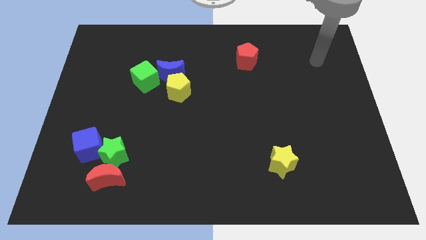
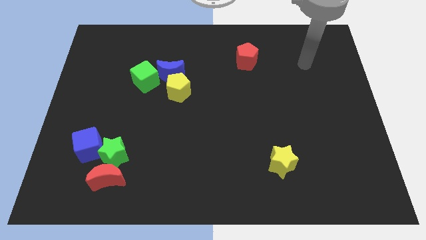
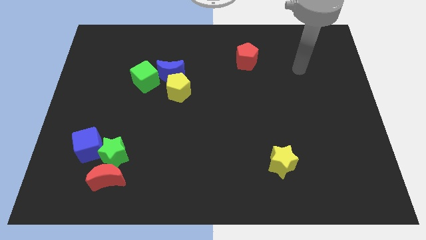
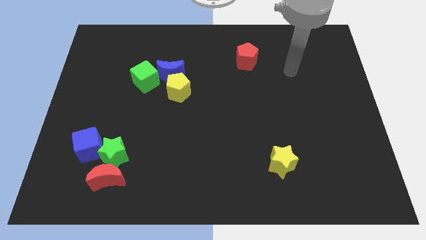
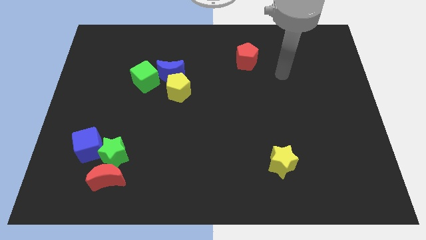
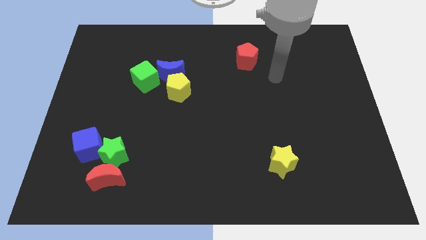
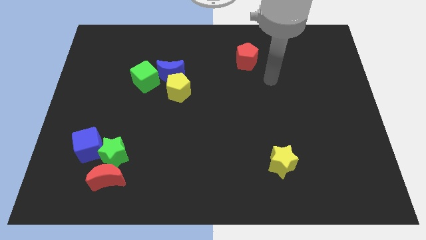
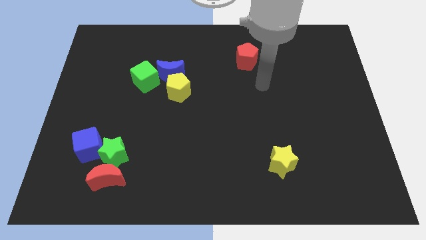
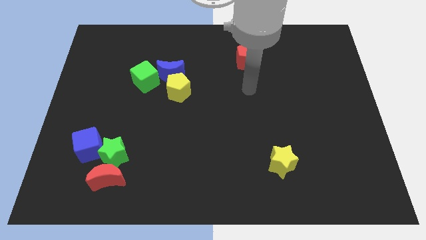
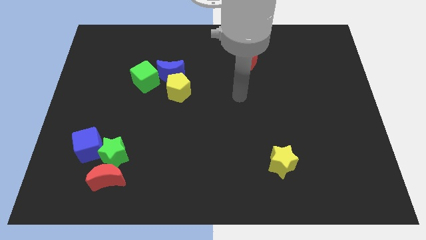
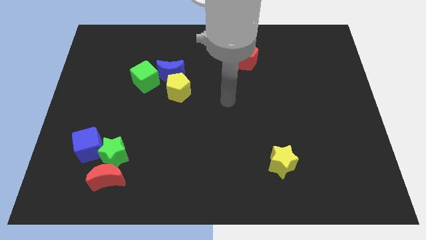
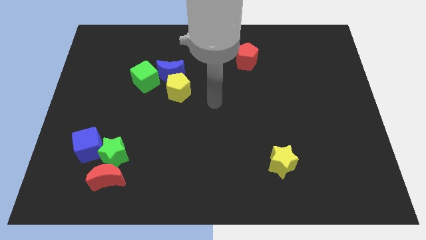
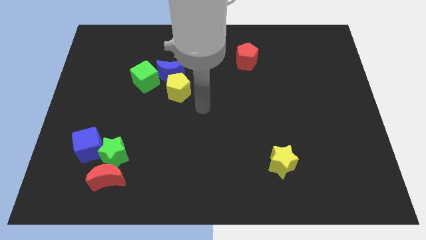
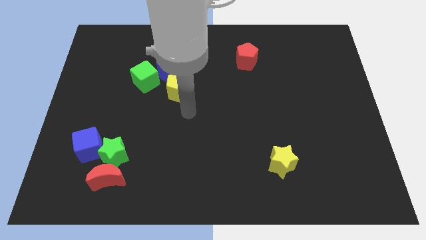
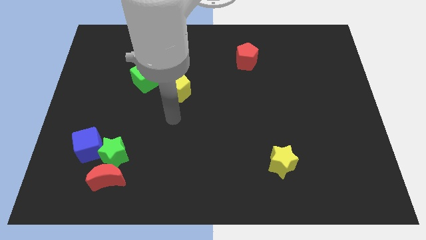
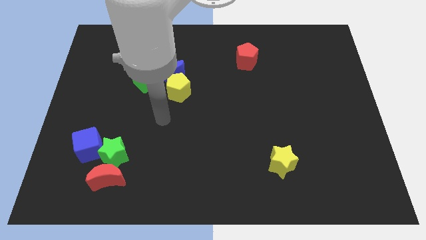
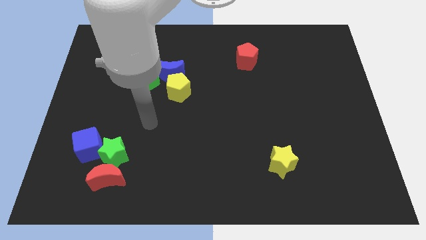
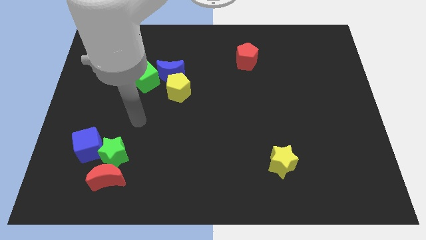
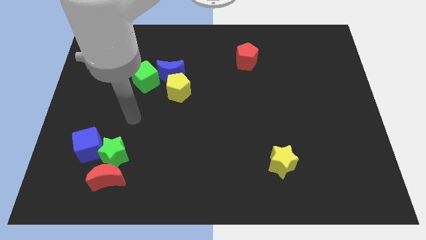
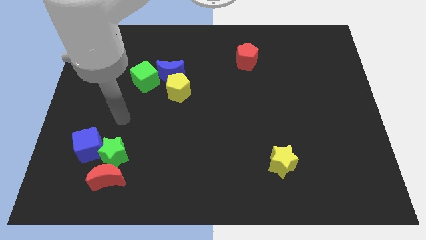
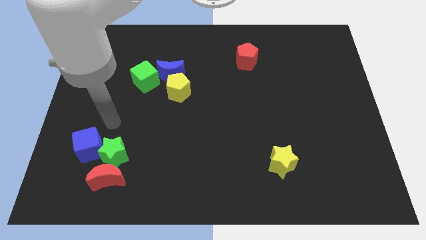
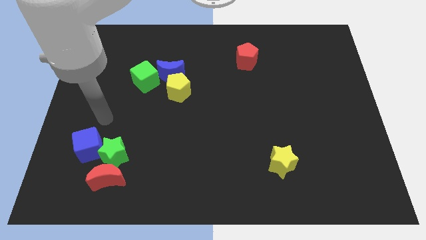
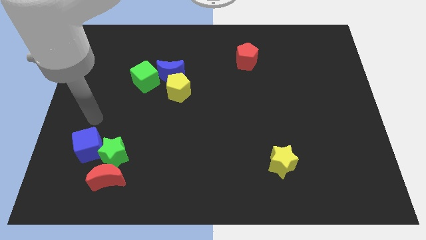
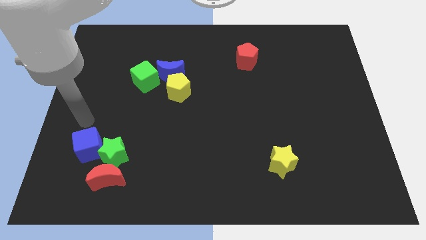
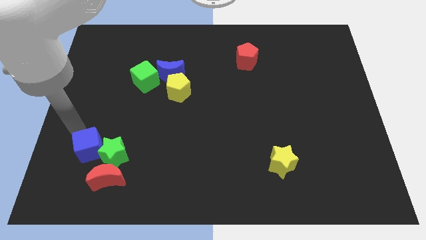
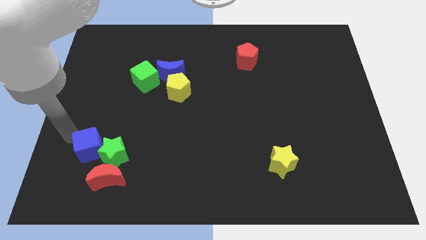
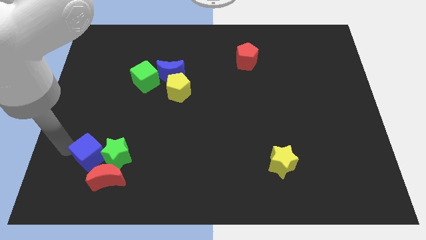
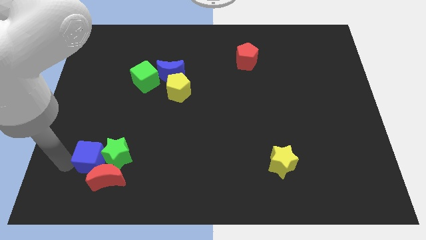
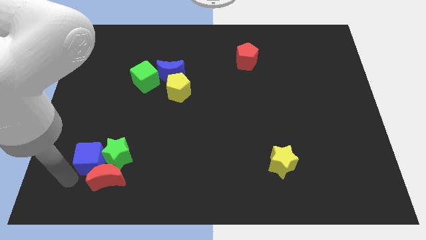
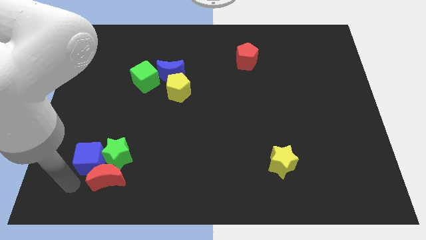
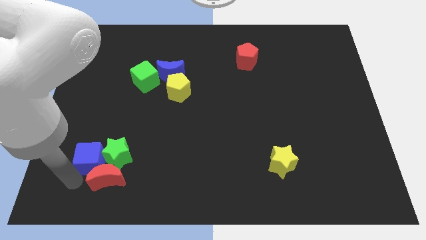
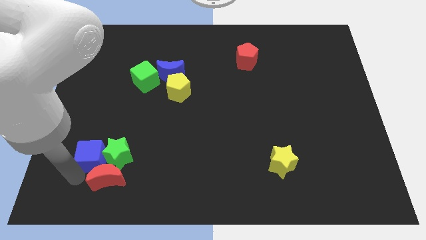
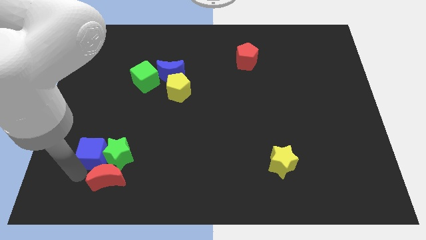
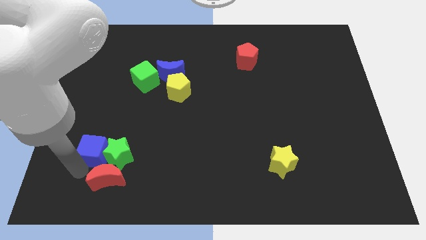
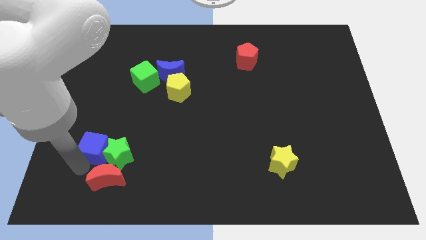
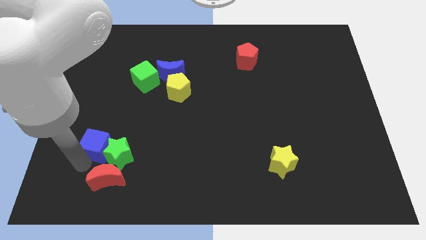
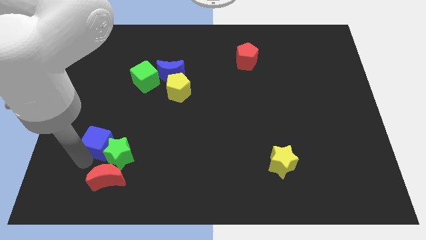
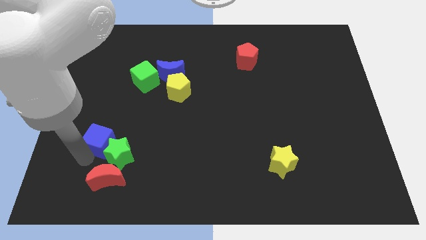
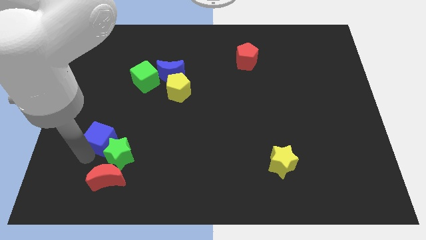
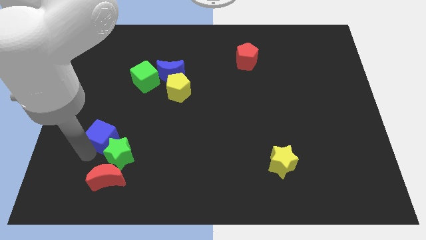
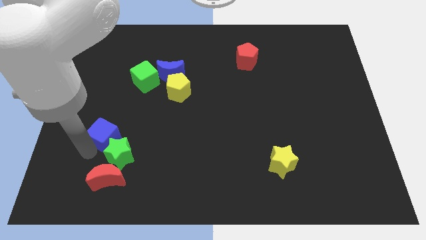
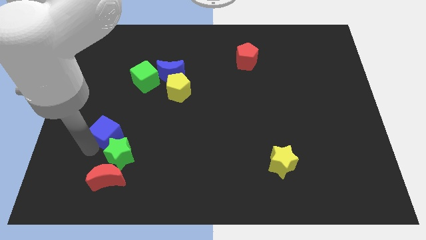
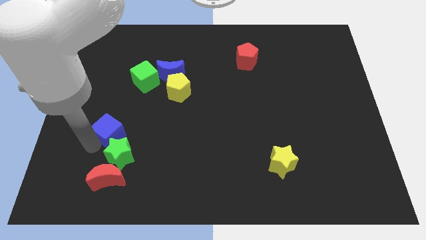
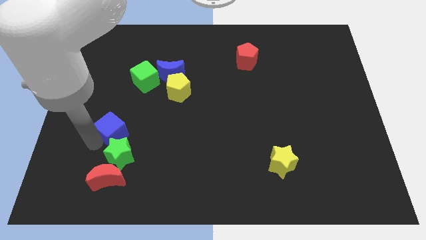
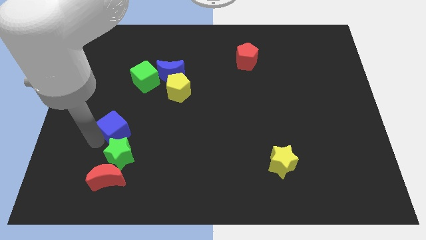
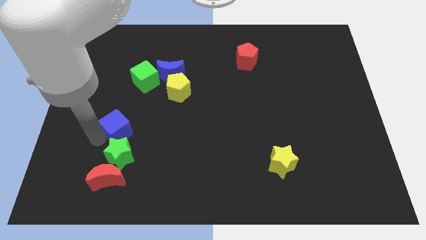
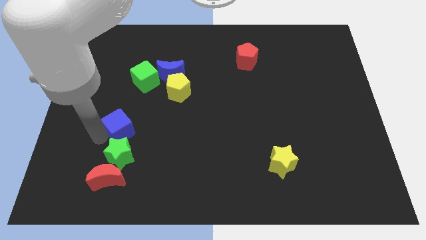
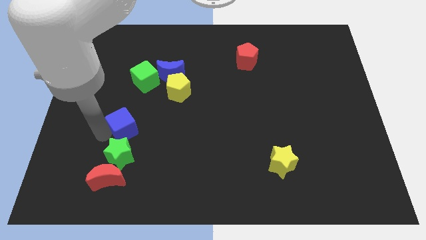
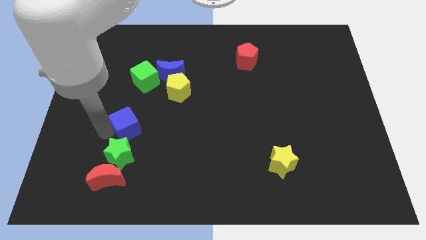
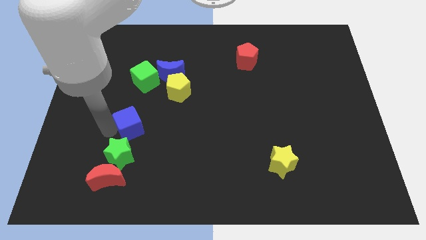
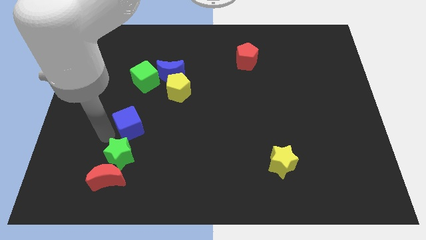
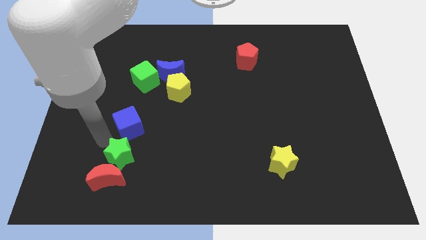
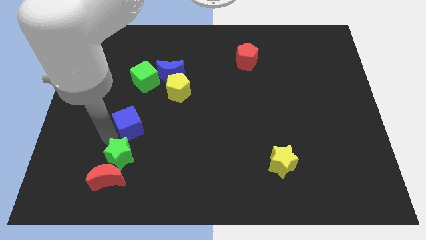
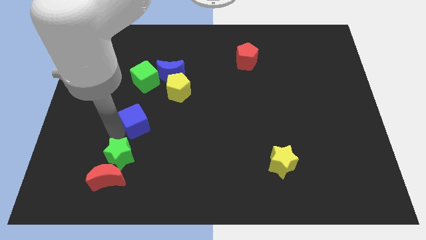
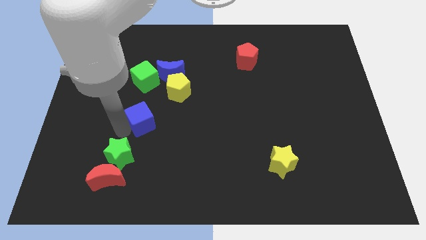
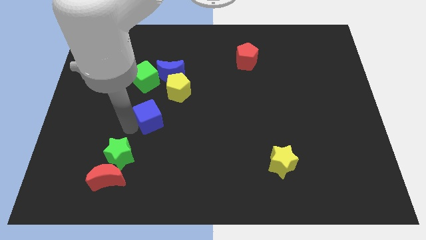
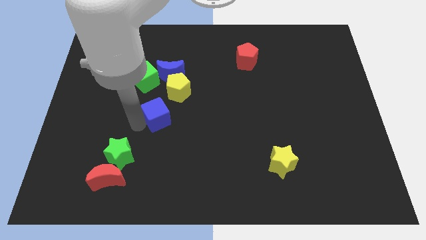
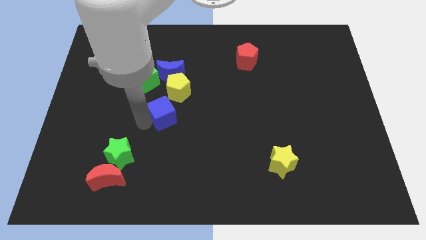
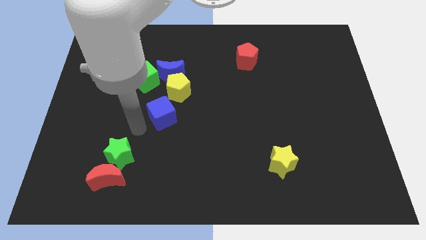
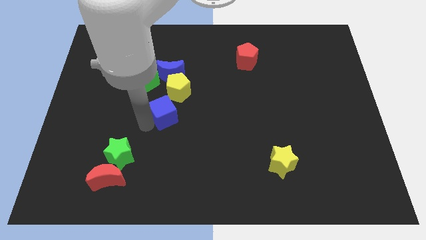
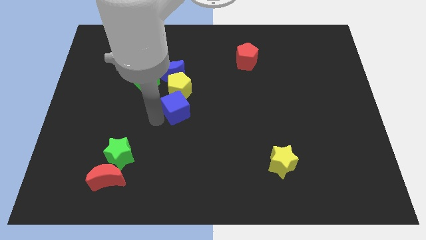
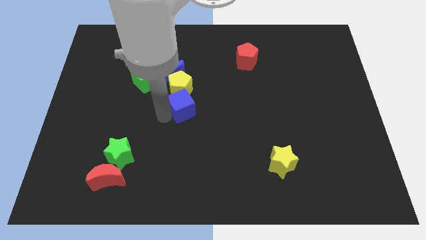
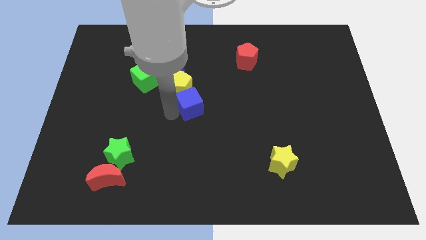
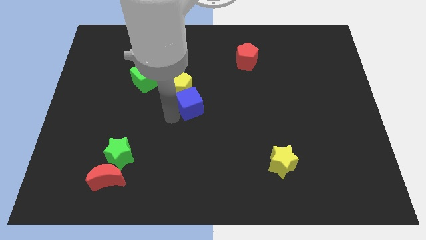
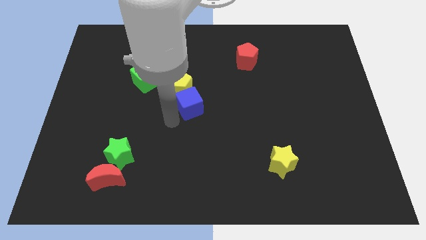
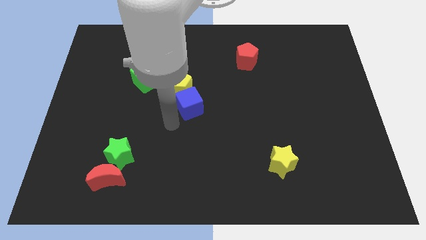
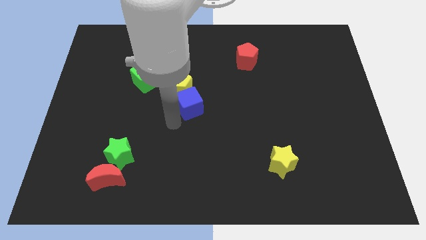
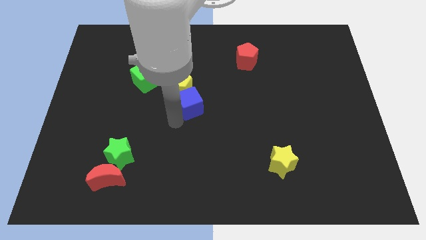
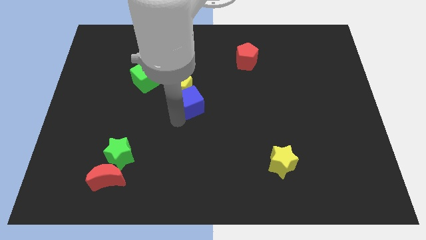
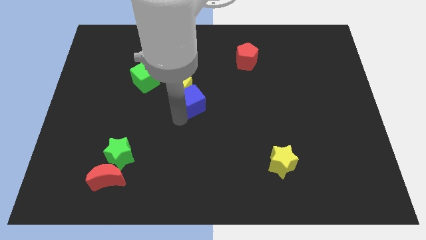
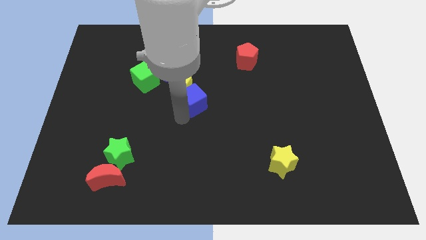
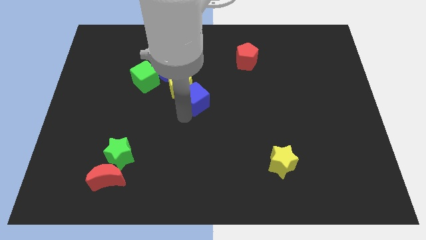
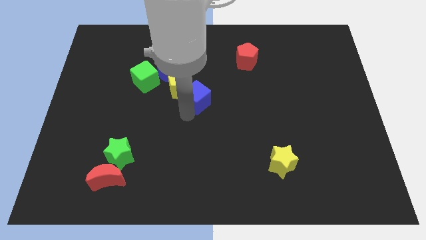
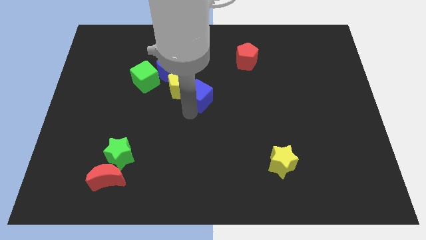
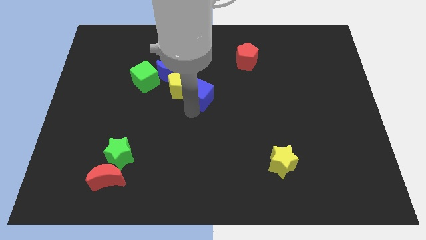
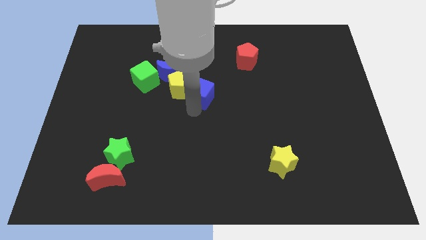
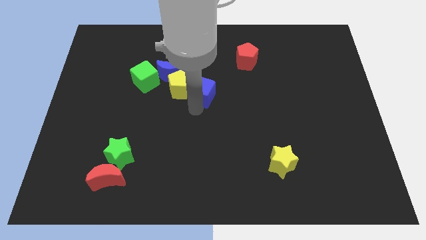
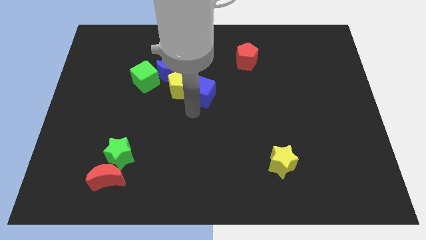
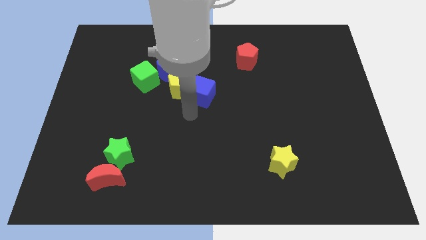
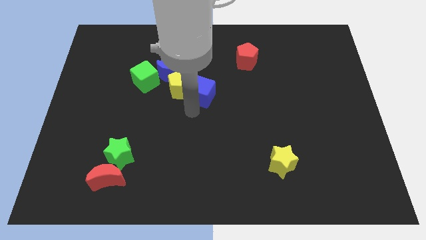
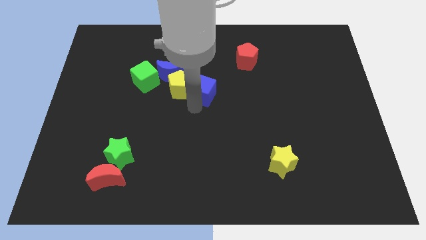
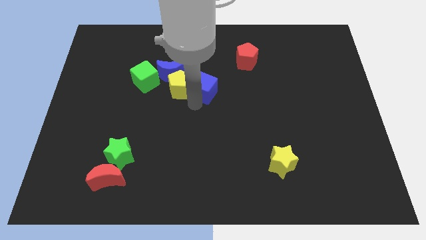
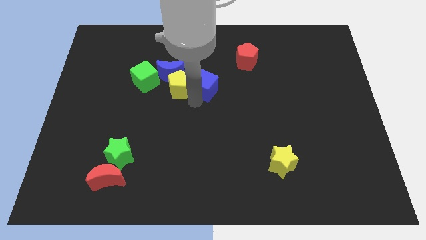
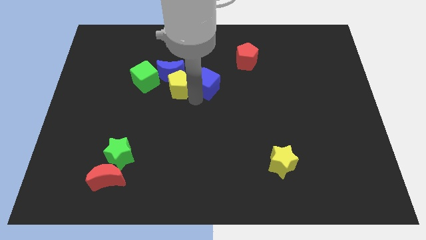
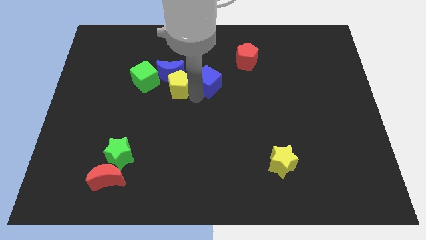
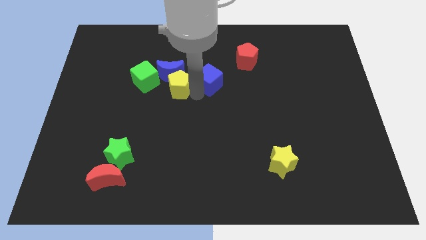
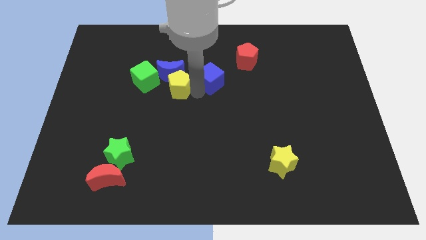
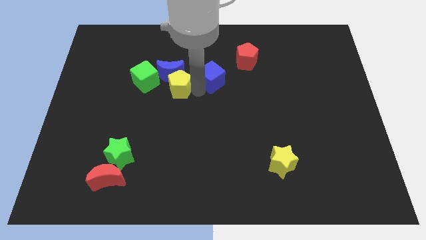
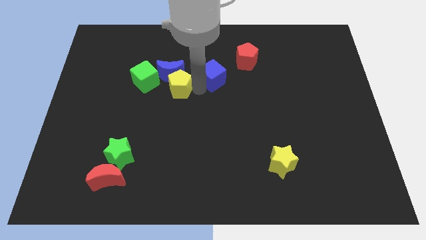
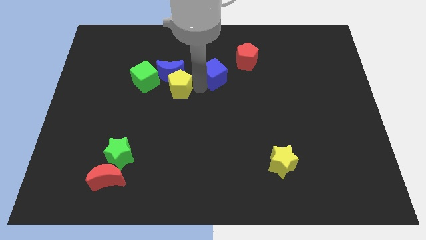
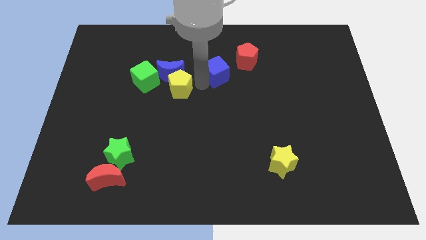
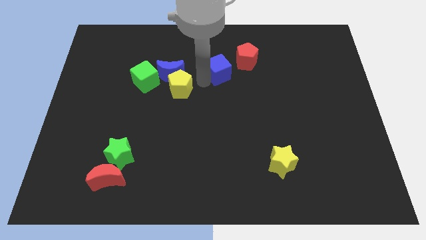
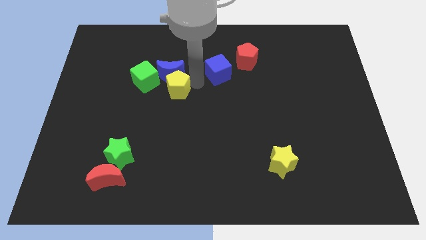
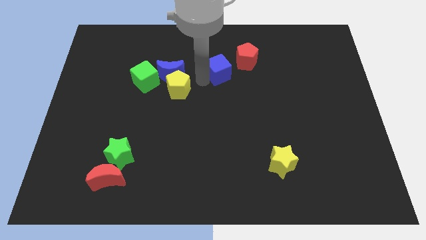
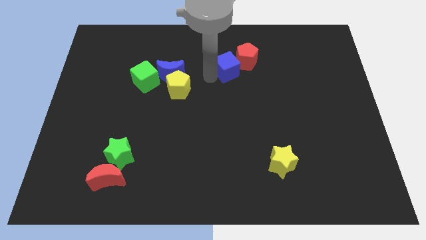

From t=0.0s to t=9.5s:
put the blue cube to the red pentagon
